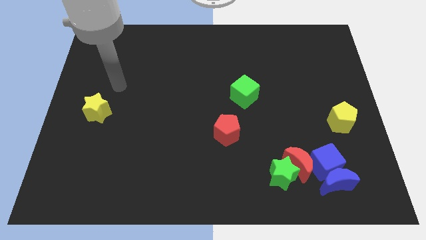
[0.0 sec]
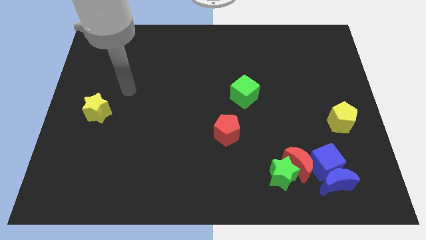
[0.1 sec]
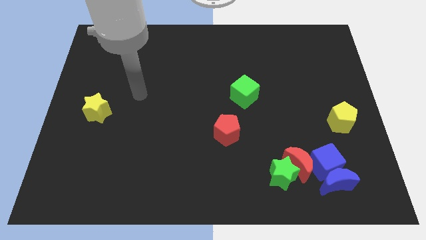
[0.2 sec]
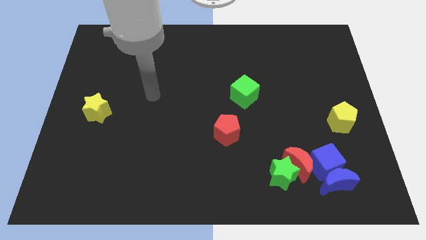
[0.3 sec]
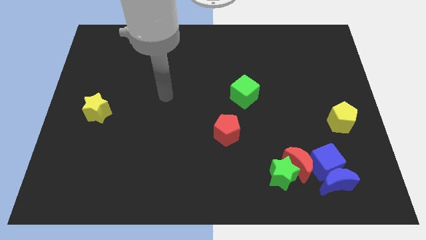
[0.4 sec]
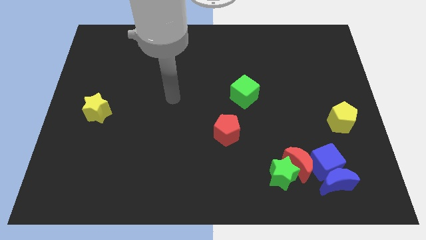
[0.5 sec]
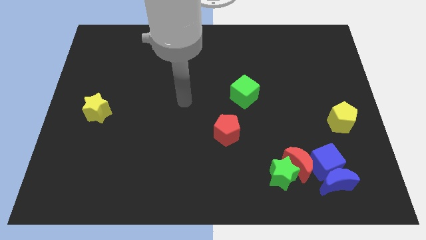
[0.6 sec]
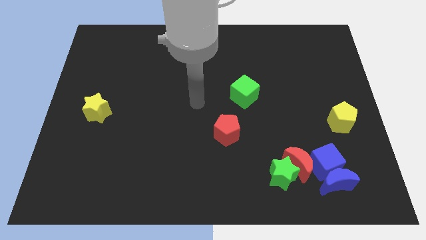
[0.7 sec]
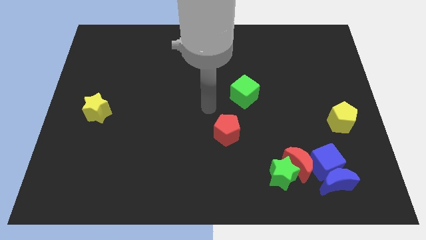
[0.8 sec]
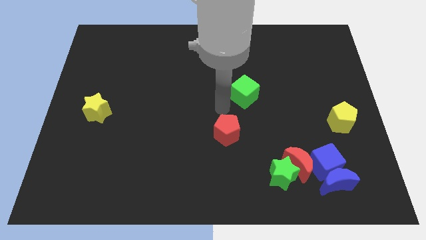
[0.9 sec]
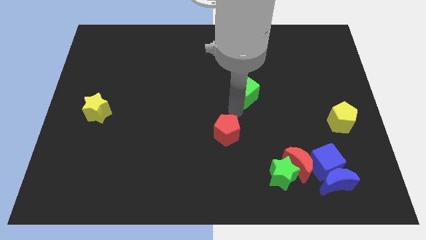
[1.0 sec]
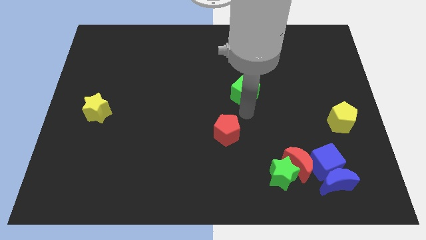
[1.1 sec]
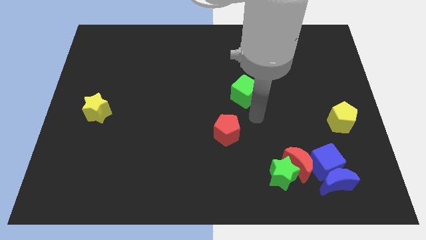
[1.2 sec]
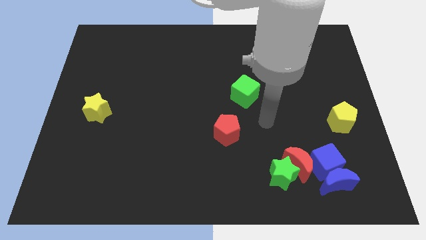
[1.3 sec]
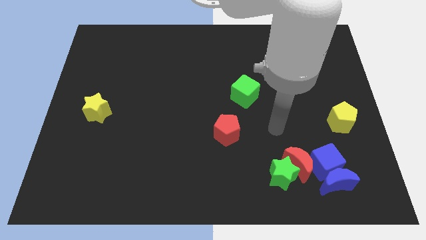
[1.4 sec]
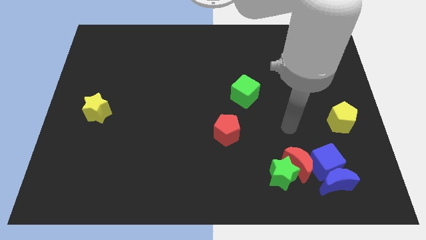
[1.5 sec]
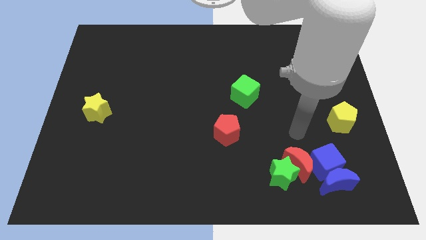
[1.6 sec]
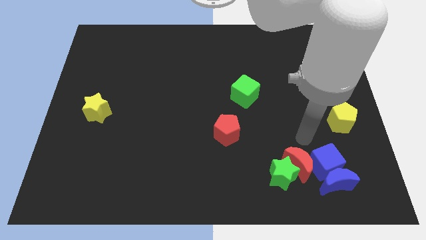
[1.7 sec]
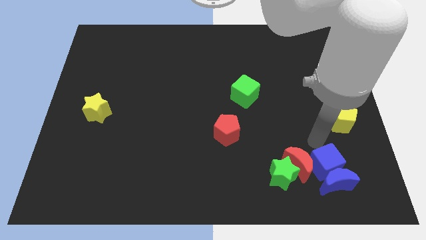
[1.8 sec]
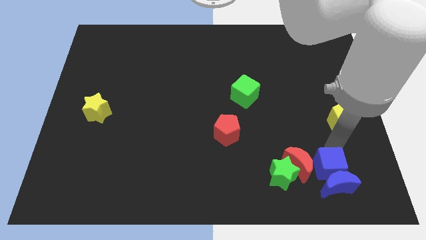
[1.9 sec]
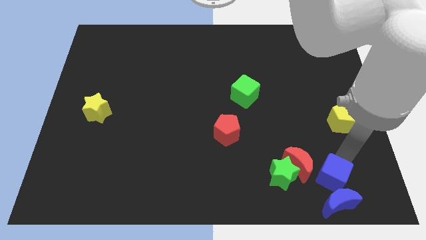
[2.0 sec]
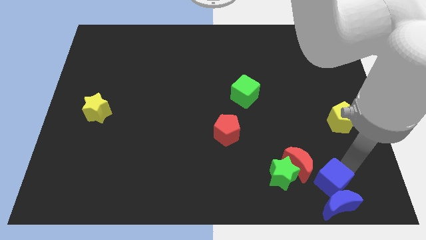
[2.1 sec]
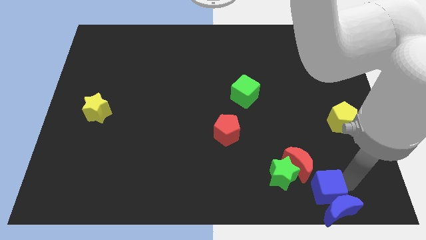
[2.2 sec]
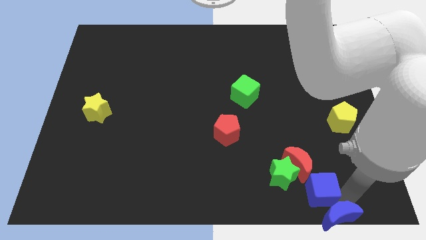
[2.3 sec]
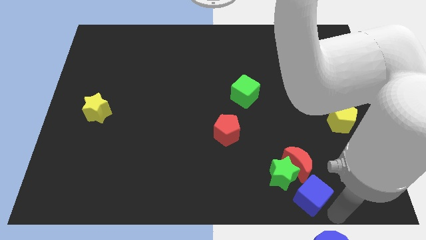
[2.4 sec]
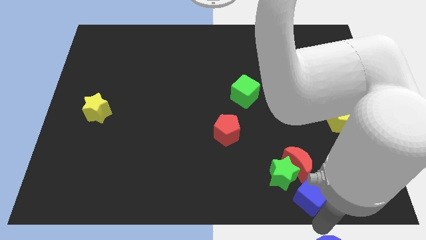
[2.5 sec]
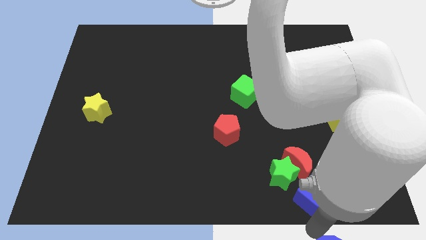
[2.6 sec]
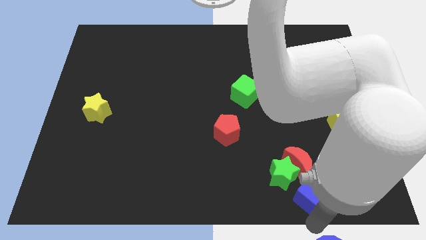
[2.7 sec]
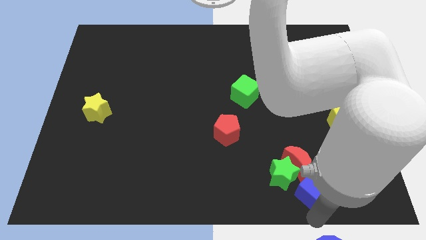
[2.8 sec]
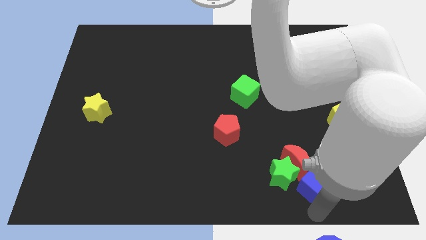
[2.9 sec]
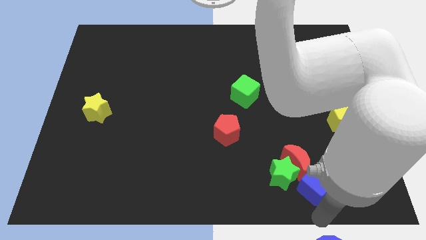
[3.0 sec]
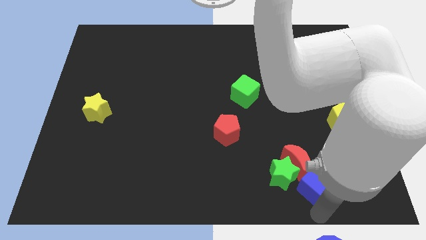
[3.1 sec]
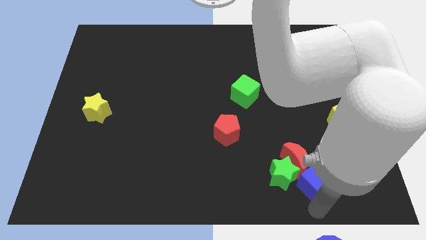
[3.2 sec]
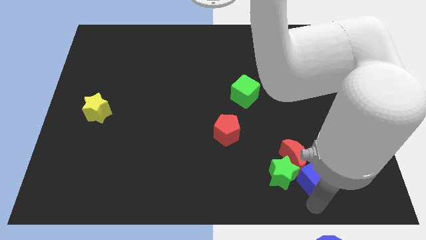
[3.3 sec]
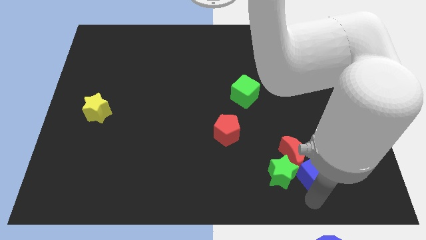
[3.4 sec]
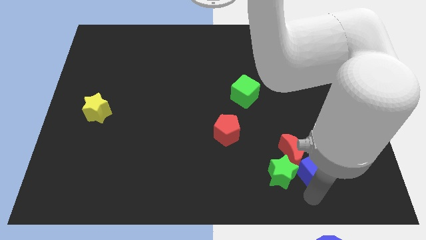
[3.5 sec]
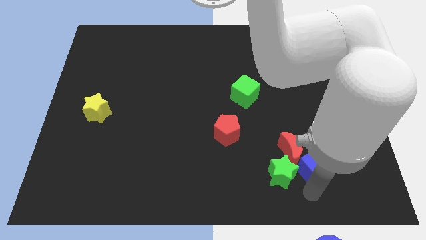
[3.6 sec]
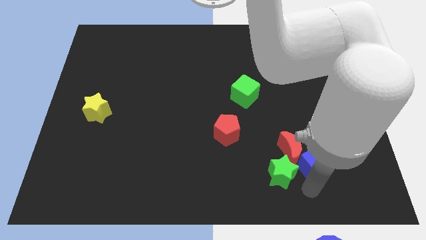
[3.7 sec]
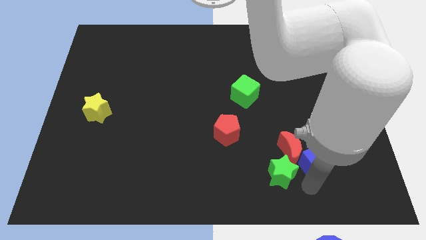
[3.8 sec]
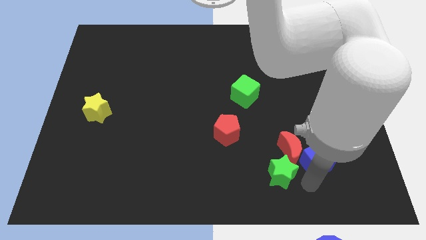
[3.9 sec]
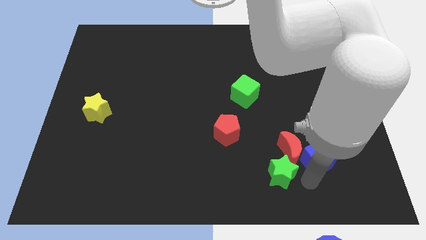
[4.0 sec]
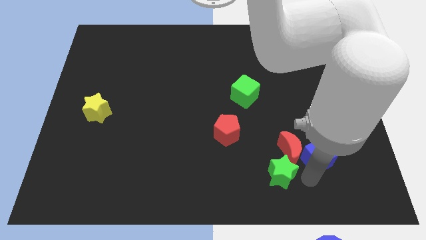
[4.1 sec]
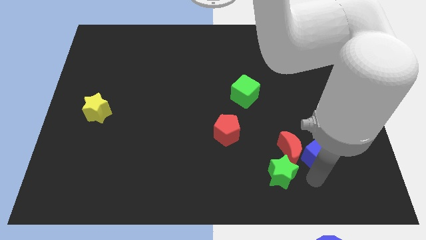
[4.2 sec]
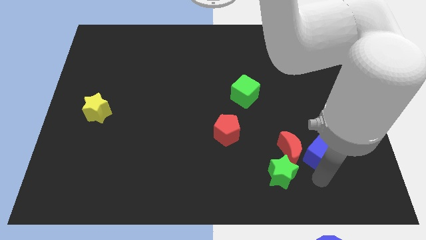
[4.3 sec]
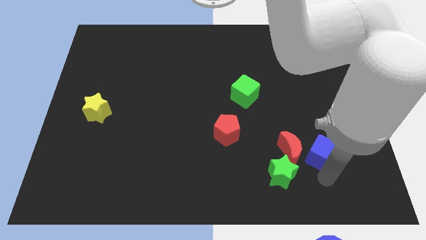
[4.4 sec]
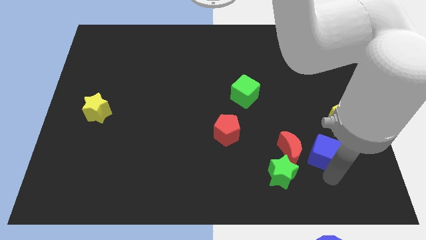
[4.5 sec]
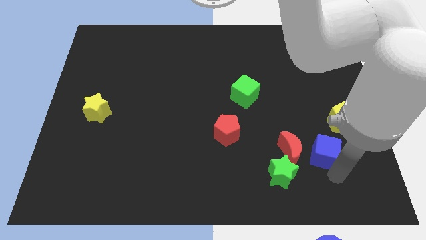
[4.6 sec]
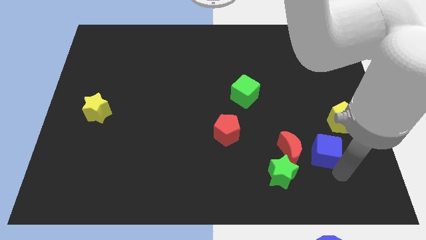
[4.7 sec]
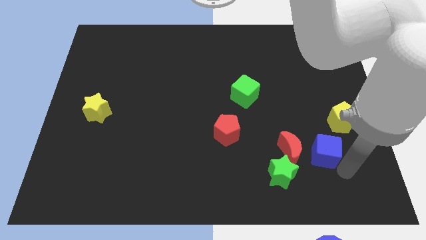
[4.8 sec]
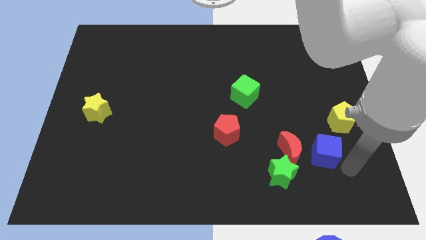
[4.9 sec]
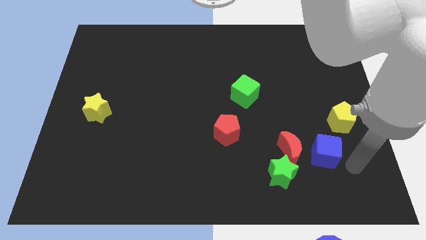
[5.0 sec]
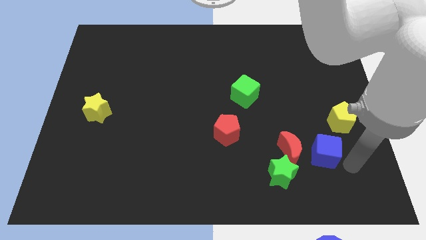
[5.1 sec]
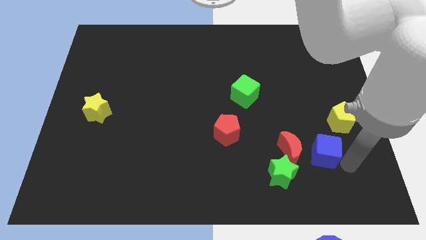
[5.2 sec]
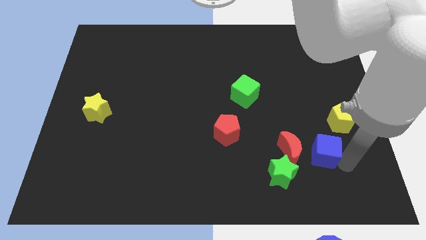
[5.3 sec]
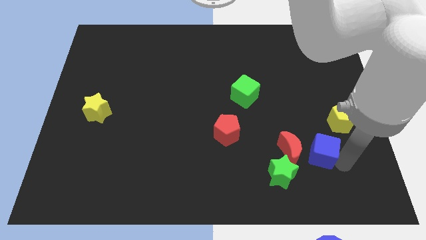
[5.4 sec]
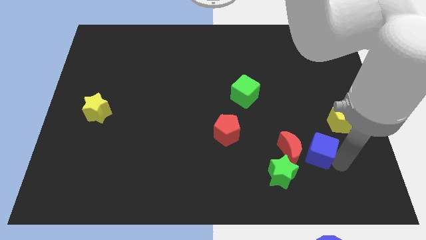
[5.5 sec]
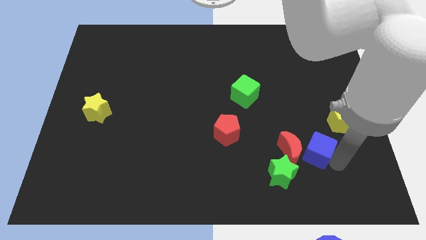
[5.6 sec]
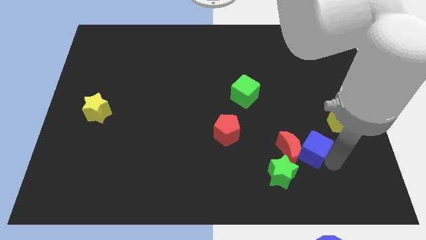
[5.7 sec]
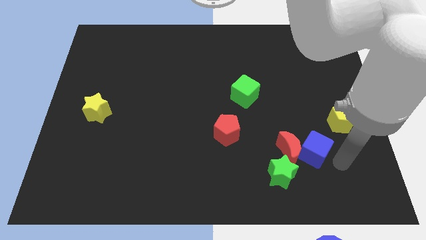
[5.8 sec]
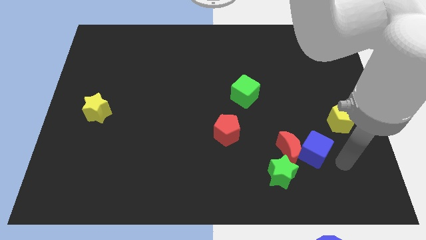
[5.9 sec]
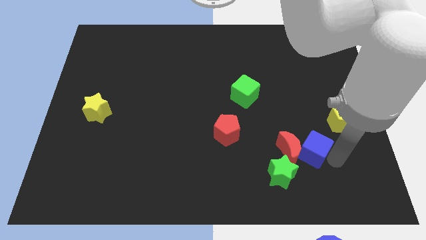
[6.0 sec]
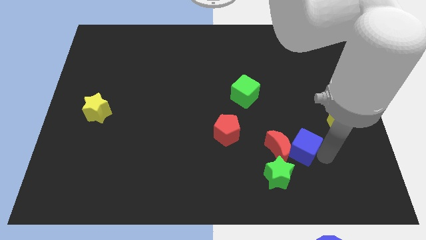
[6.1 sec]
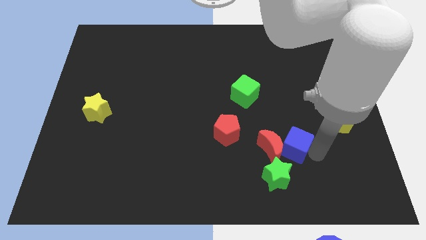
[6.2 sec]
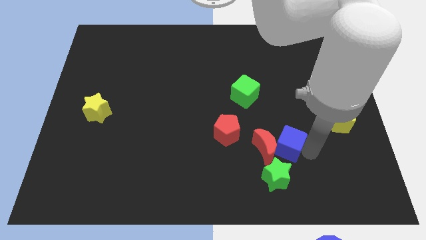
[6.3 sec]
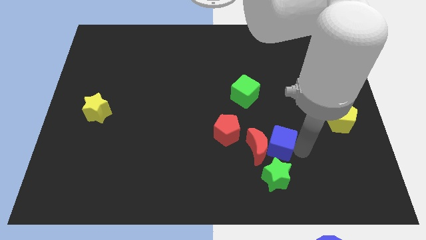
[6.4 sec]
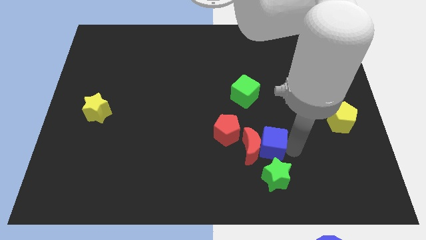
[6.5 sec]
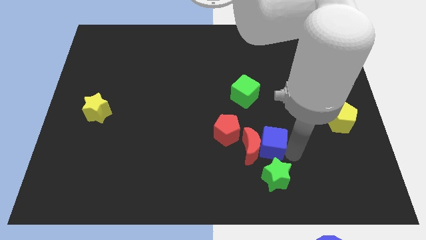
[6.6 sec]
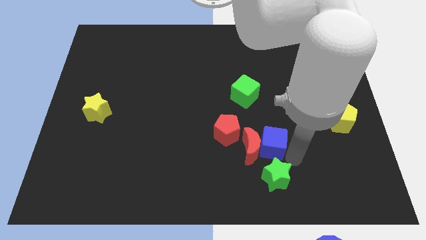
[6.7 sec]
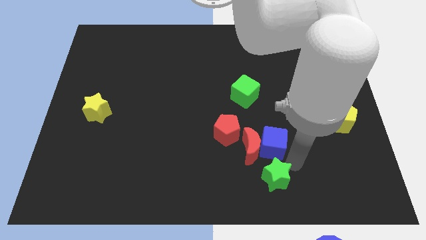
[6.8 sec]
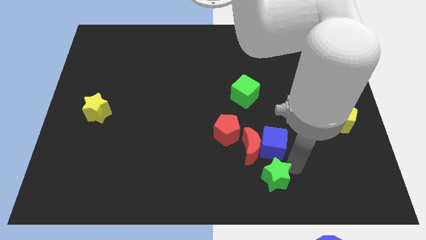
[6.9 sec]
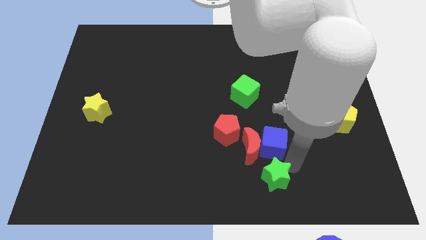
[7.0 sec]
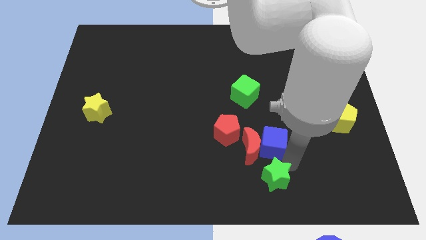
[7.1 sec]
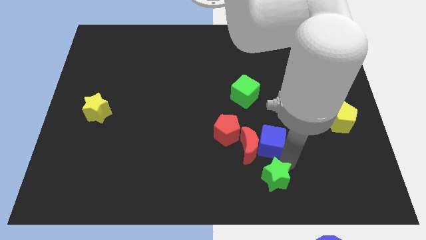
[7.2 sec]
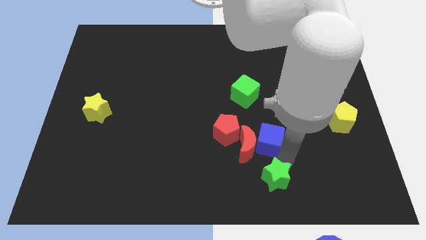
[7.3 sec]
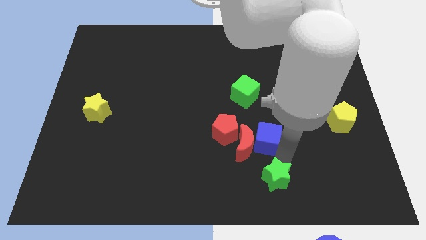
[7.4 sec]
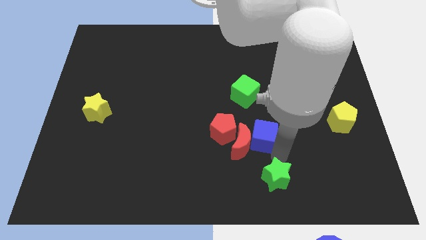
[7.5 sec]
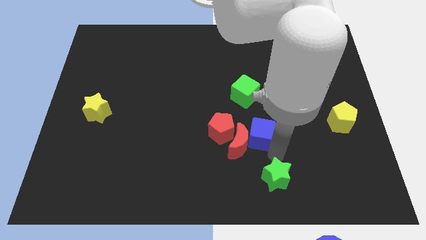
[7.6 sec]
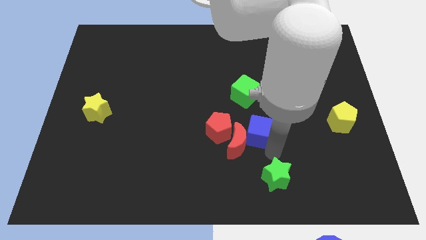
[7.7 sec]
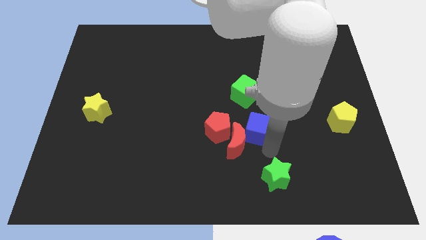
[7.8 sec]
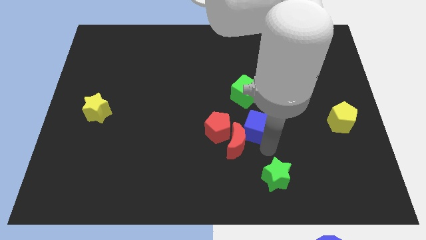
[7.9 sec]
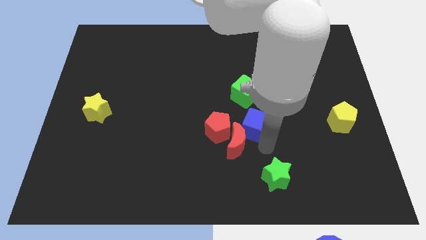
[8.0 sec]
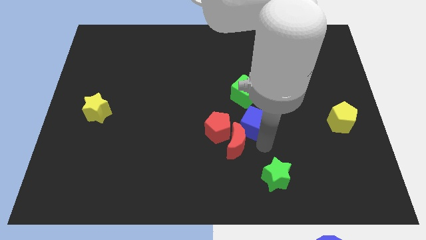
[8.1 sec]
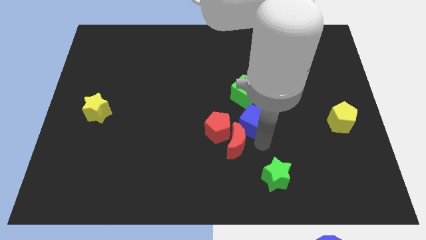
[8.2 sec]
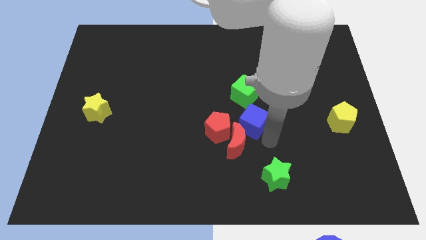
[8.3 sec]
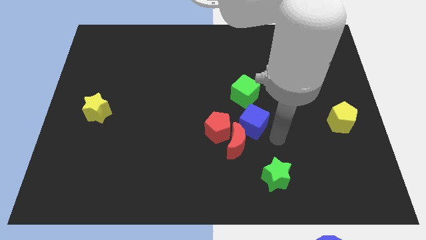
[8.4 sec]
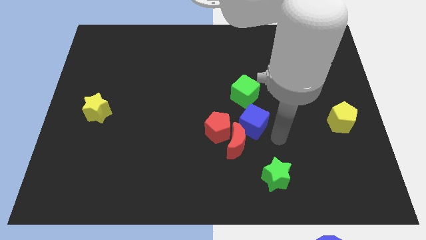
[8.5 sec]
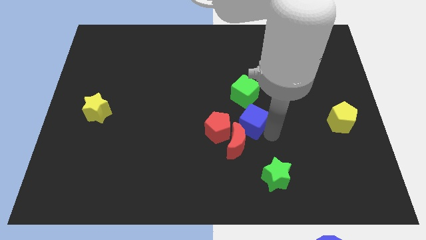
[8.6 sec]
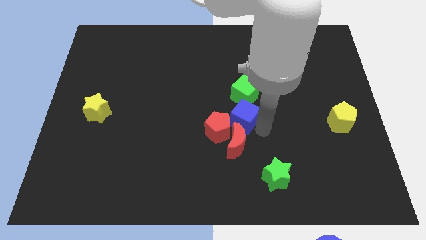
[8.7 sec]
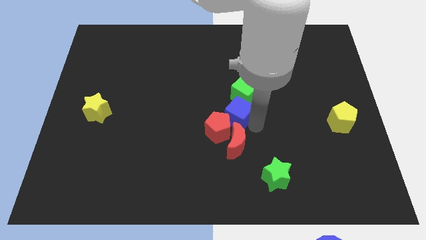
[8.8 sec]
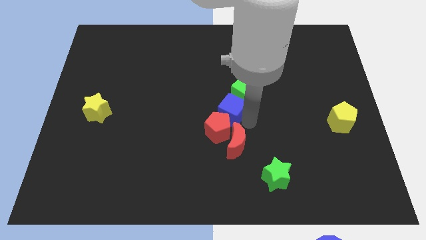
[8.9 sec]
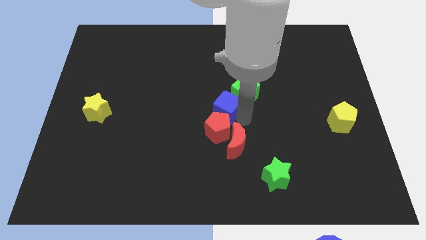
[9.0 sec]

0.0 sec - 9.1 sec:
slide the blue cube to the left side of the green cube
